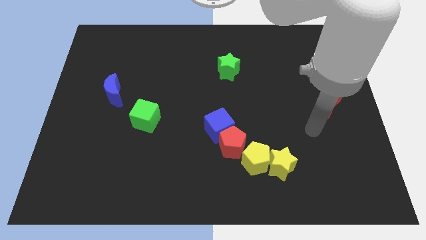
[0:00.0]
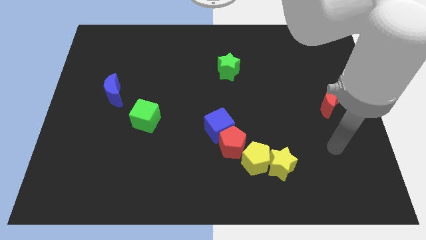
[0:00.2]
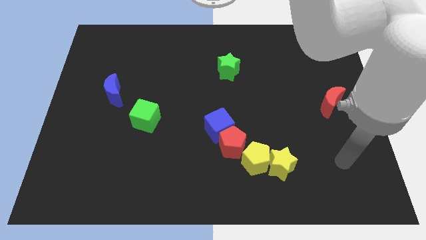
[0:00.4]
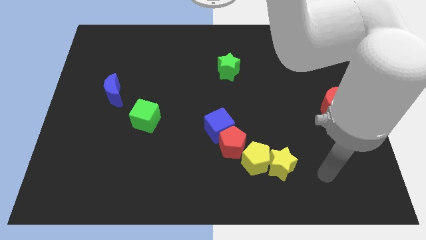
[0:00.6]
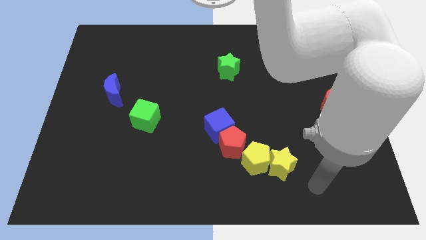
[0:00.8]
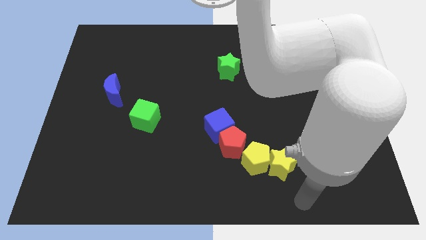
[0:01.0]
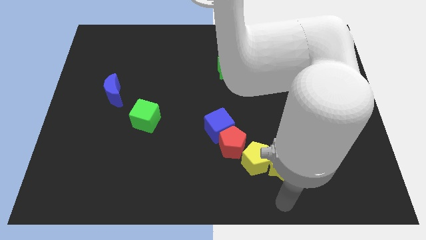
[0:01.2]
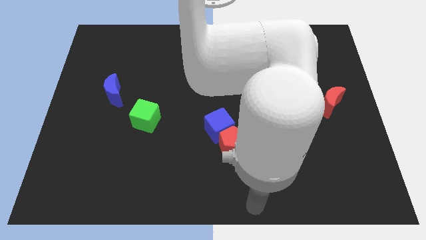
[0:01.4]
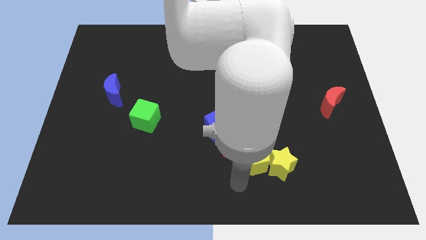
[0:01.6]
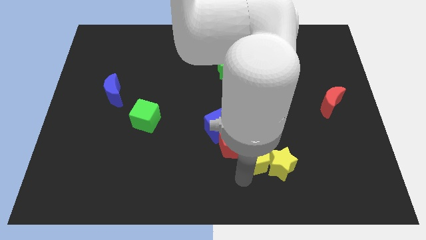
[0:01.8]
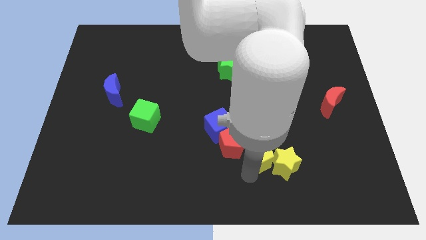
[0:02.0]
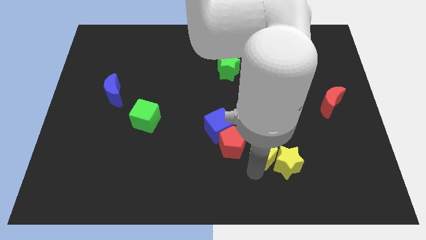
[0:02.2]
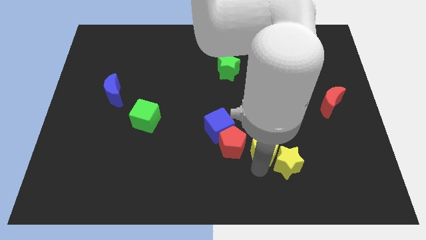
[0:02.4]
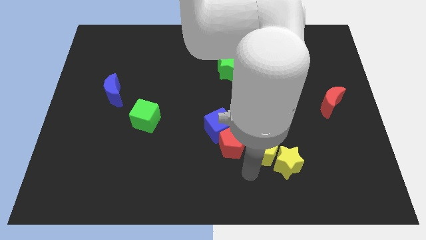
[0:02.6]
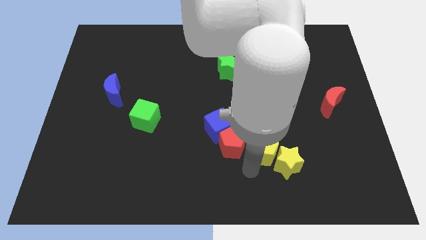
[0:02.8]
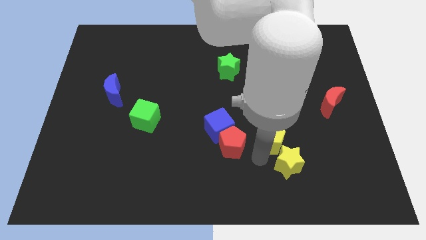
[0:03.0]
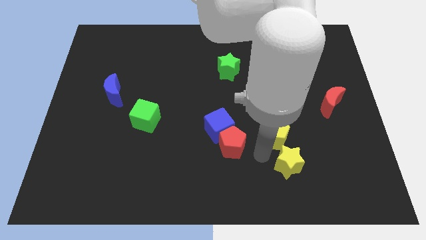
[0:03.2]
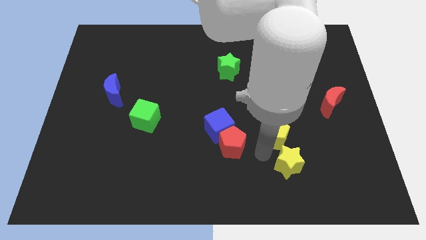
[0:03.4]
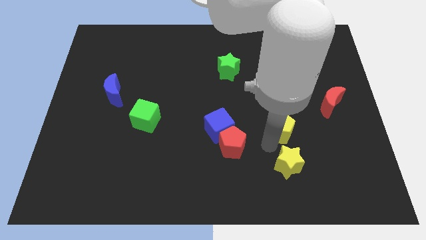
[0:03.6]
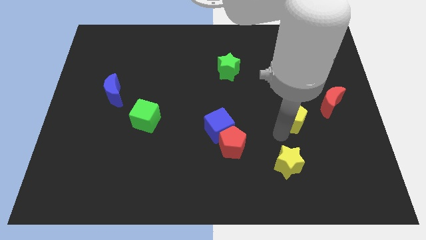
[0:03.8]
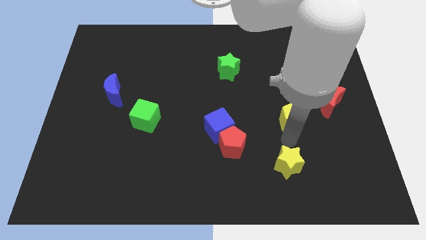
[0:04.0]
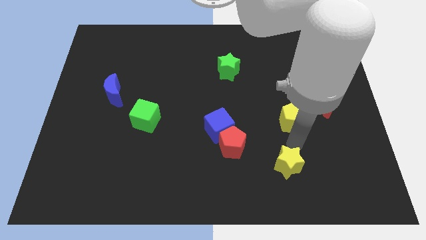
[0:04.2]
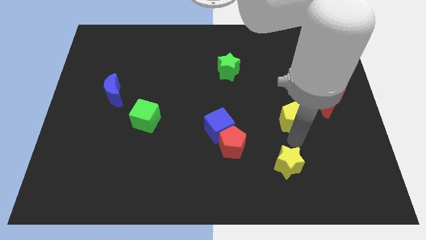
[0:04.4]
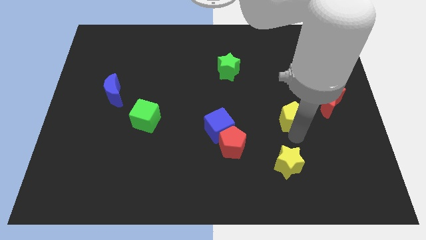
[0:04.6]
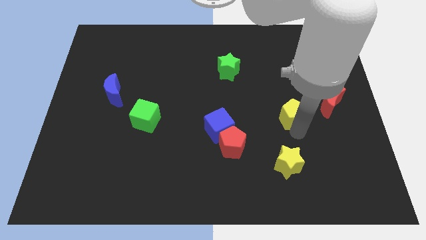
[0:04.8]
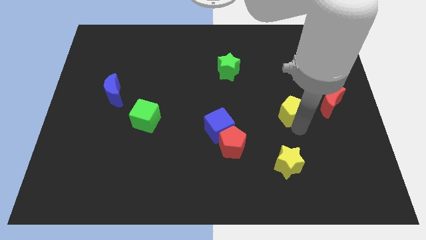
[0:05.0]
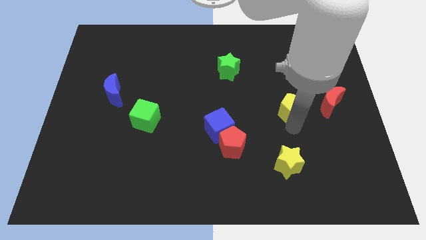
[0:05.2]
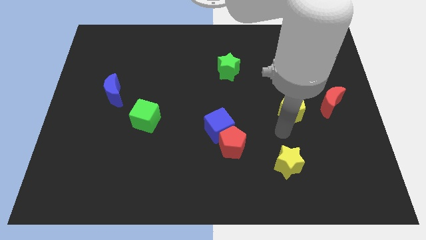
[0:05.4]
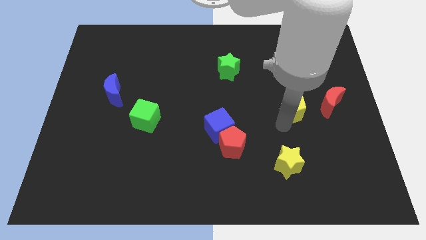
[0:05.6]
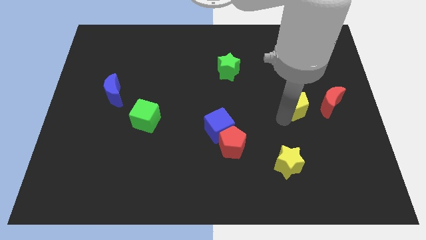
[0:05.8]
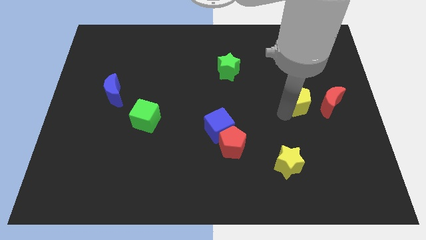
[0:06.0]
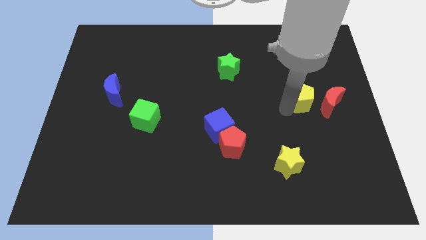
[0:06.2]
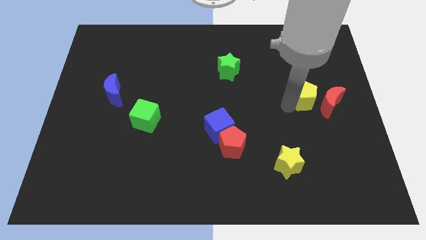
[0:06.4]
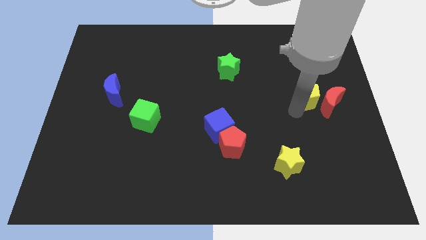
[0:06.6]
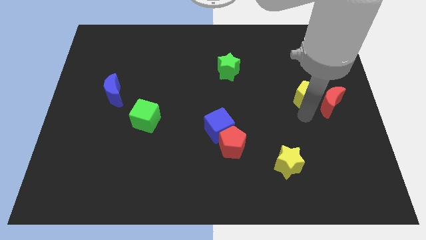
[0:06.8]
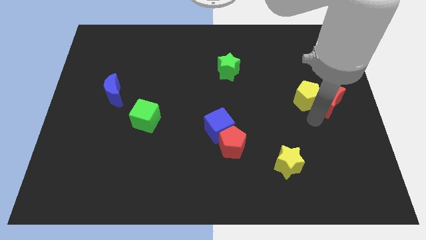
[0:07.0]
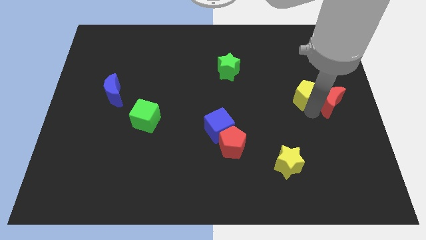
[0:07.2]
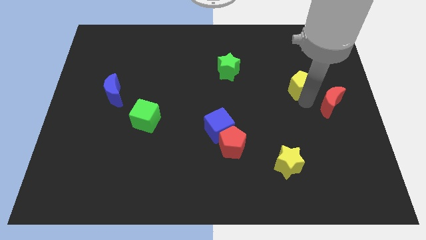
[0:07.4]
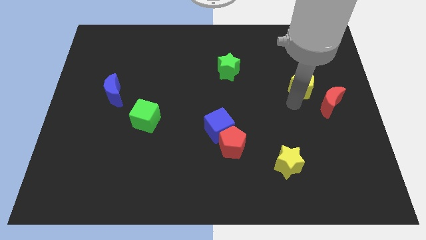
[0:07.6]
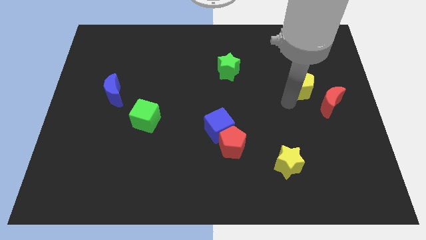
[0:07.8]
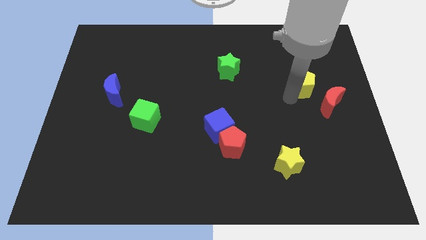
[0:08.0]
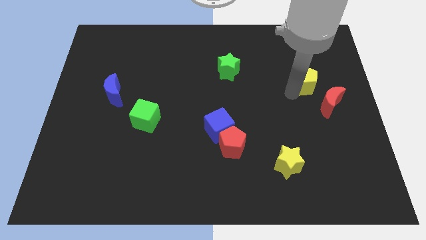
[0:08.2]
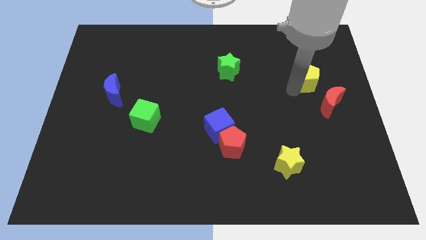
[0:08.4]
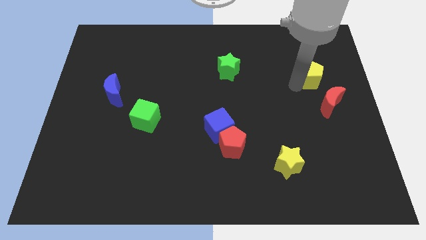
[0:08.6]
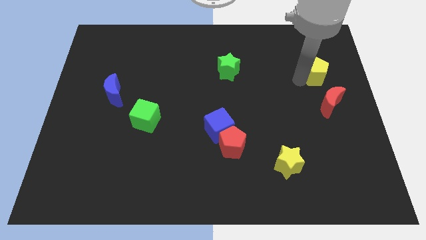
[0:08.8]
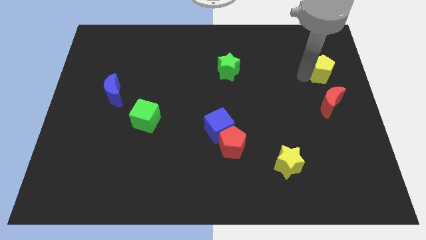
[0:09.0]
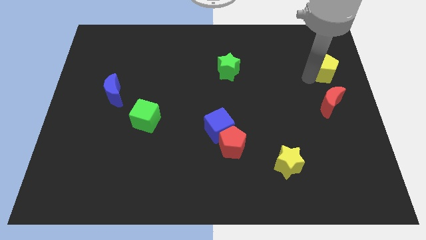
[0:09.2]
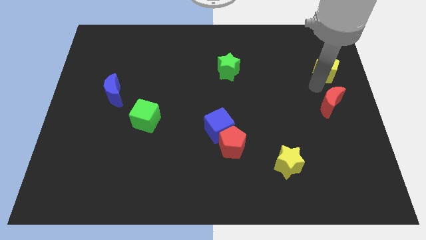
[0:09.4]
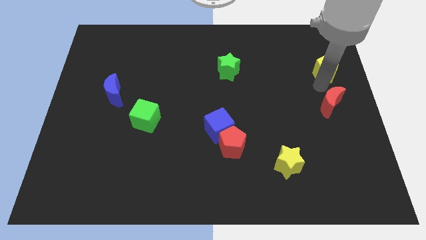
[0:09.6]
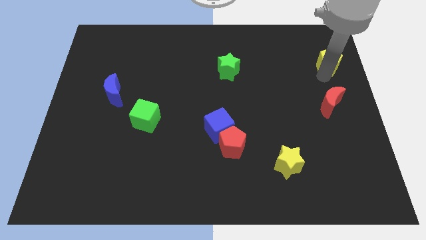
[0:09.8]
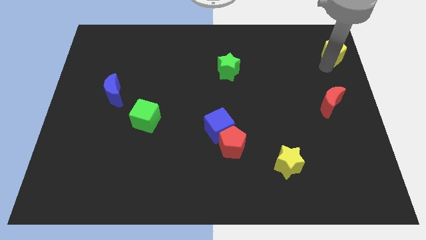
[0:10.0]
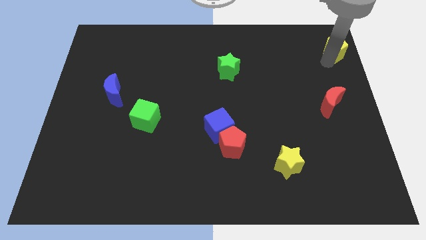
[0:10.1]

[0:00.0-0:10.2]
move the yellow pentagon to the top right corner

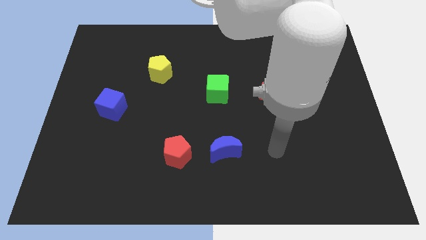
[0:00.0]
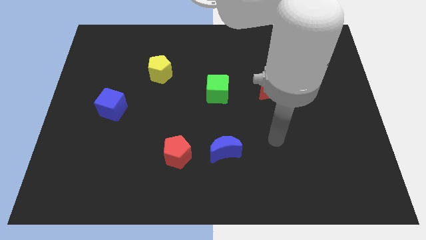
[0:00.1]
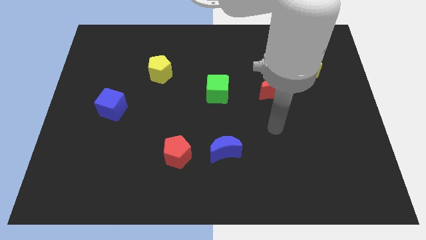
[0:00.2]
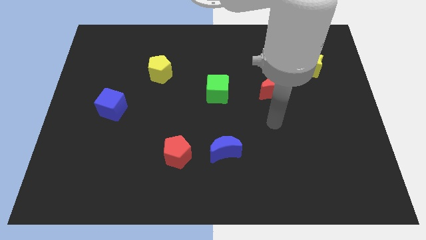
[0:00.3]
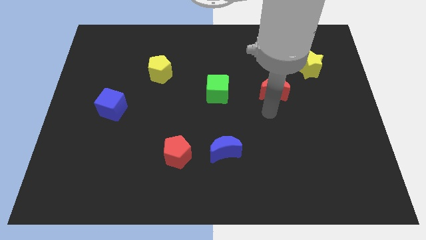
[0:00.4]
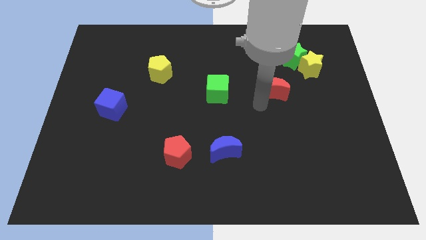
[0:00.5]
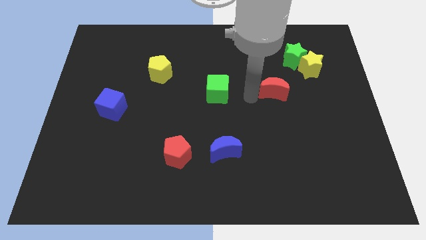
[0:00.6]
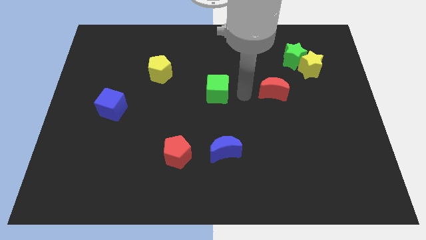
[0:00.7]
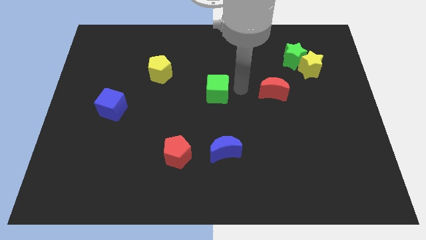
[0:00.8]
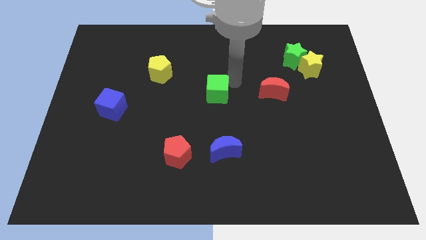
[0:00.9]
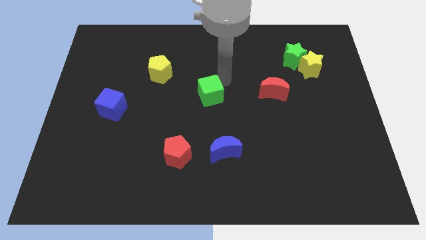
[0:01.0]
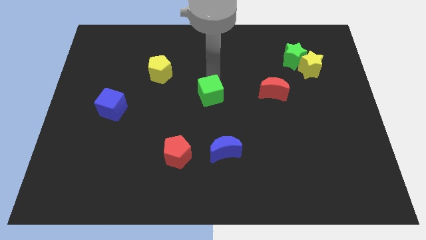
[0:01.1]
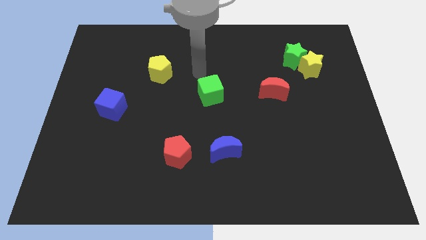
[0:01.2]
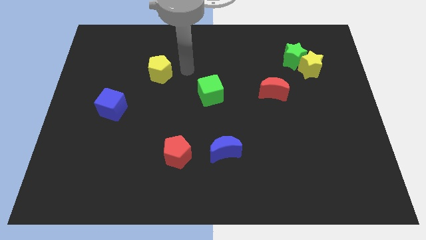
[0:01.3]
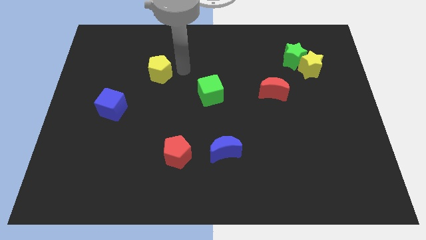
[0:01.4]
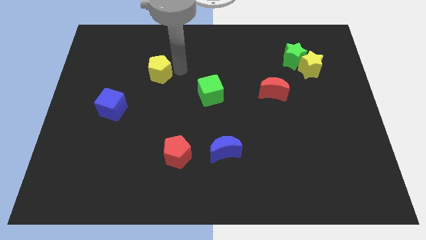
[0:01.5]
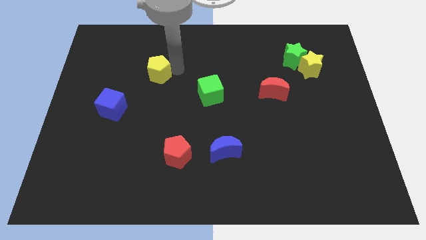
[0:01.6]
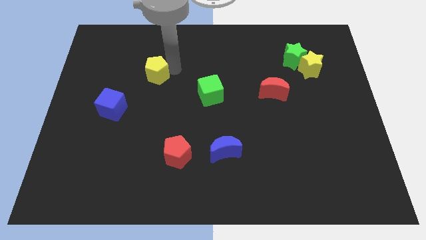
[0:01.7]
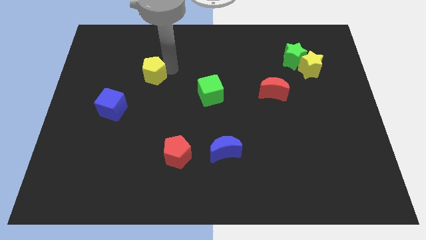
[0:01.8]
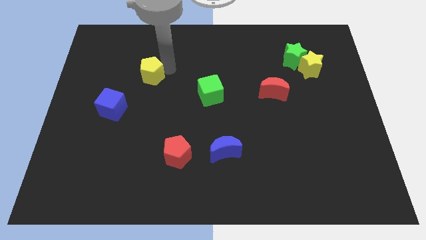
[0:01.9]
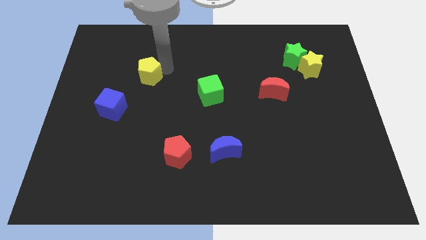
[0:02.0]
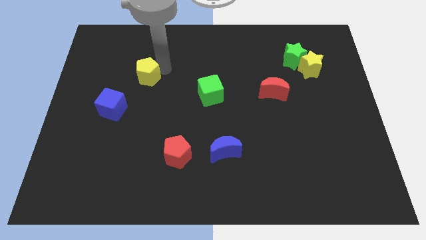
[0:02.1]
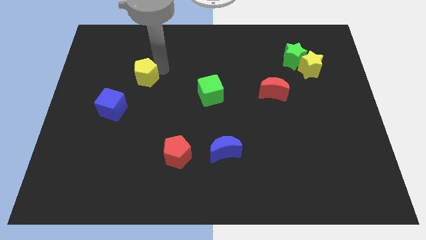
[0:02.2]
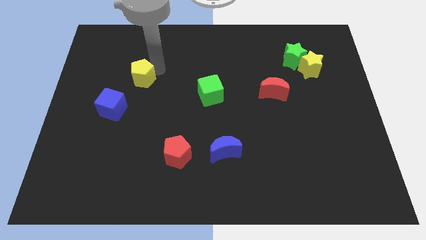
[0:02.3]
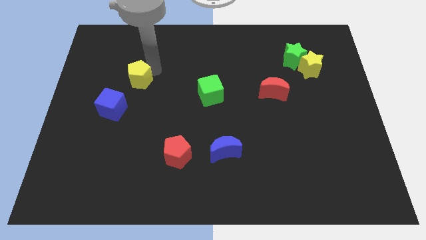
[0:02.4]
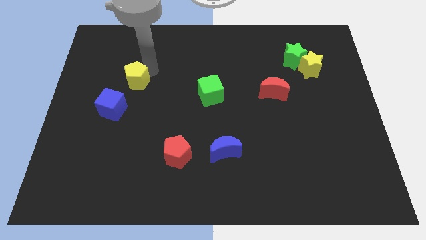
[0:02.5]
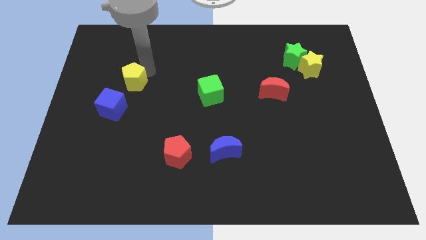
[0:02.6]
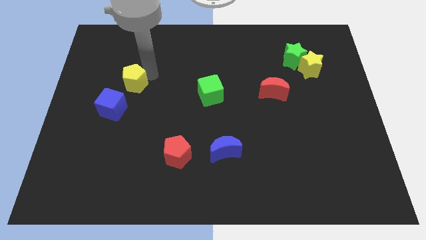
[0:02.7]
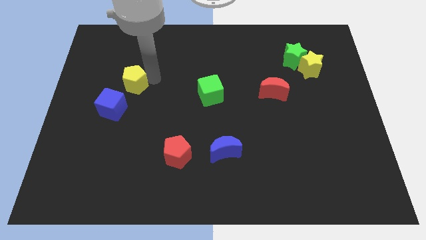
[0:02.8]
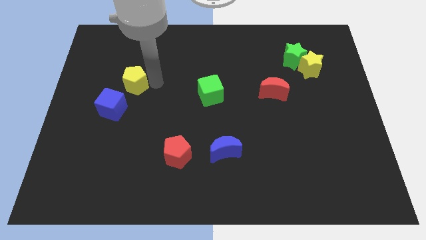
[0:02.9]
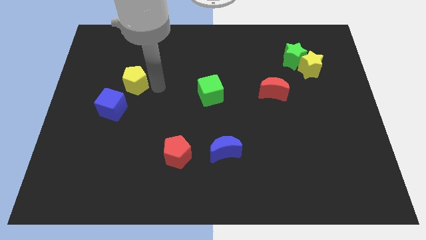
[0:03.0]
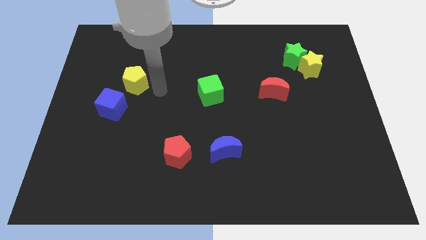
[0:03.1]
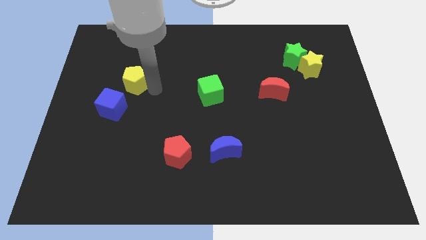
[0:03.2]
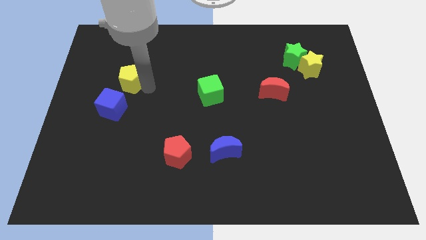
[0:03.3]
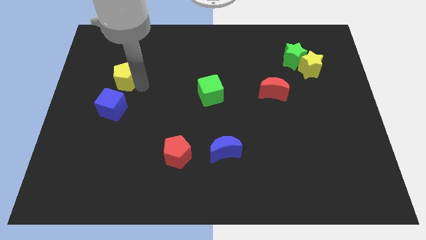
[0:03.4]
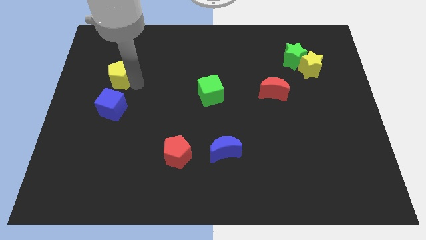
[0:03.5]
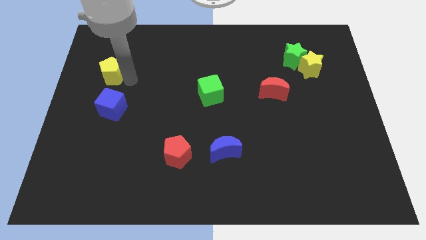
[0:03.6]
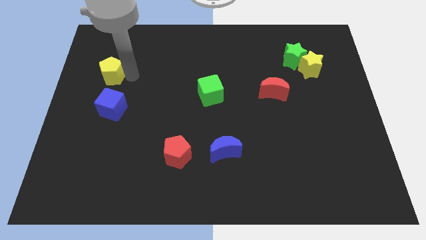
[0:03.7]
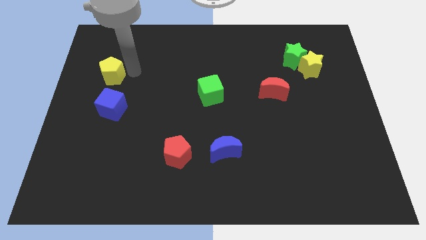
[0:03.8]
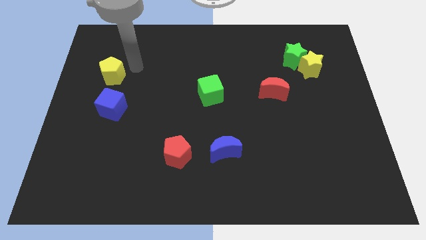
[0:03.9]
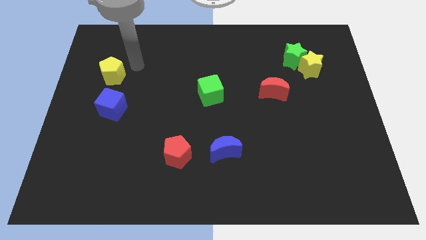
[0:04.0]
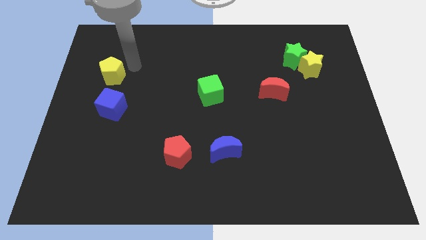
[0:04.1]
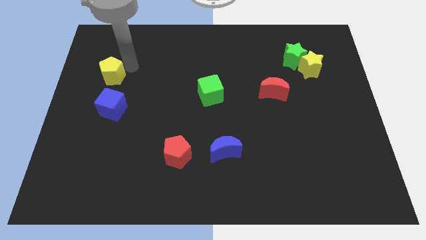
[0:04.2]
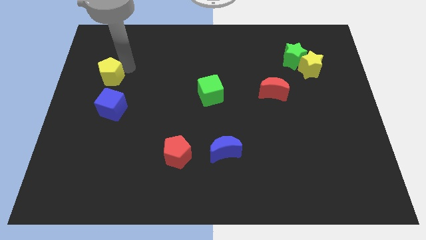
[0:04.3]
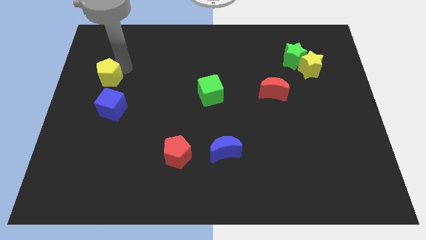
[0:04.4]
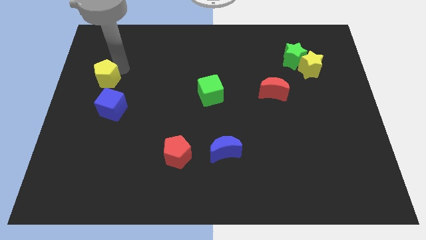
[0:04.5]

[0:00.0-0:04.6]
push the yellow pentagon to the left side
